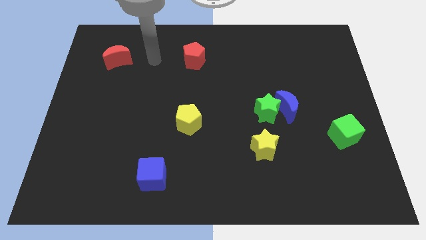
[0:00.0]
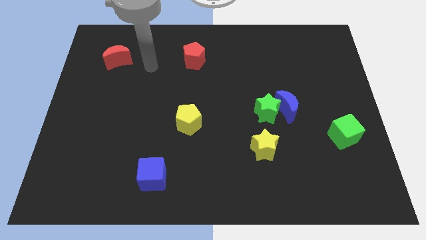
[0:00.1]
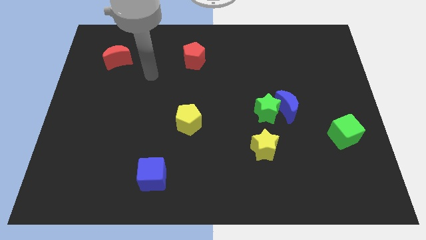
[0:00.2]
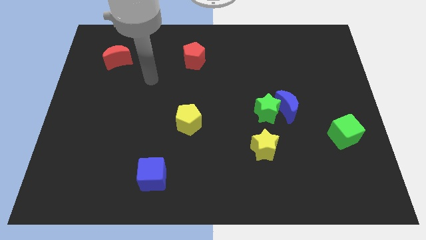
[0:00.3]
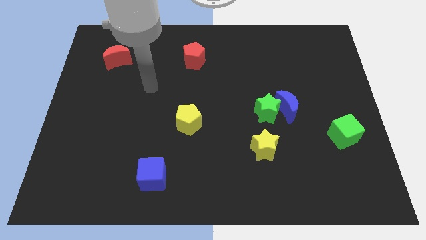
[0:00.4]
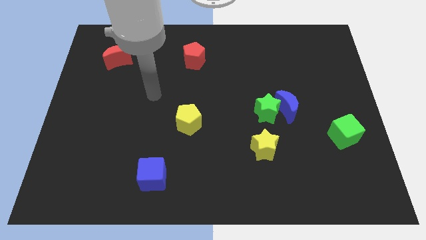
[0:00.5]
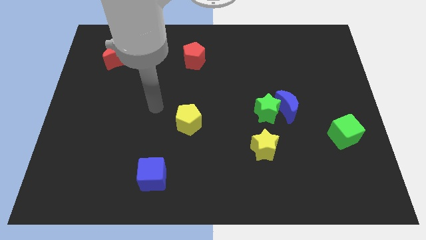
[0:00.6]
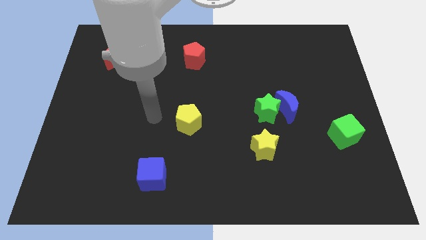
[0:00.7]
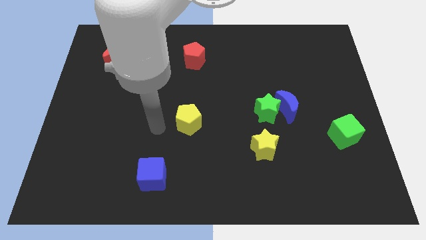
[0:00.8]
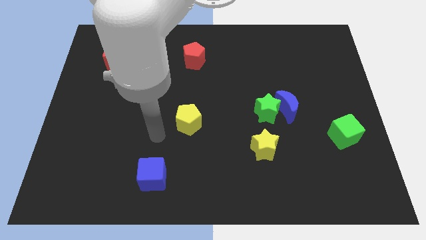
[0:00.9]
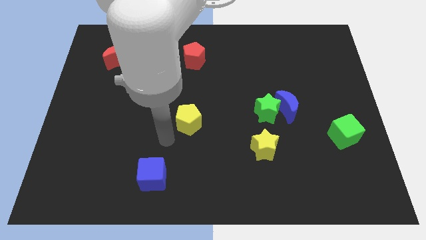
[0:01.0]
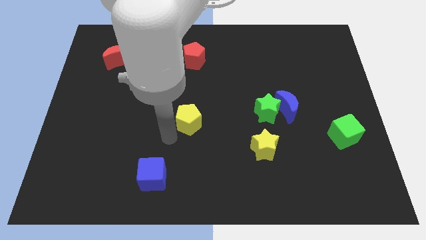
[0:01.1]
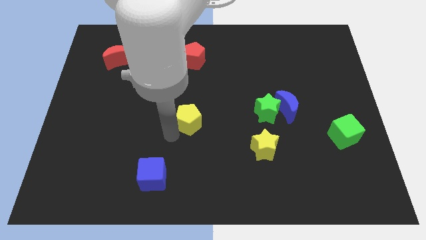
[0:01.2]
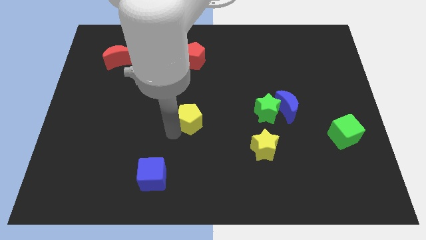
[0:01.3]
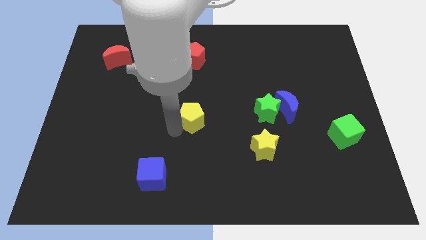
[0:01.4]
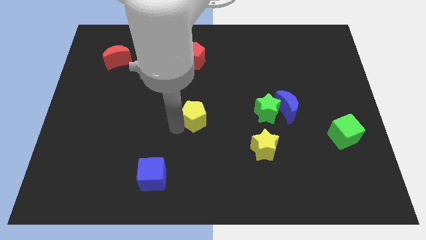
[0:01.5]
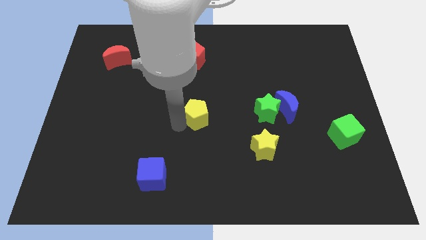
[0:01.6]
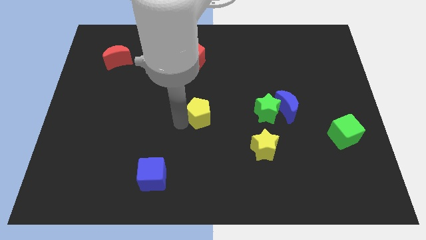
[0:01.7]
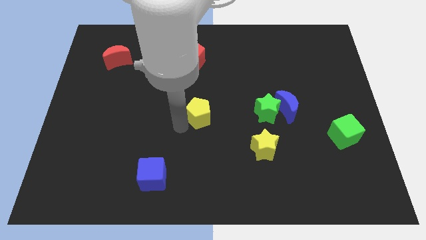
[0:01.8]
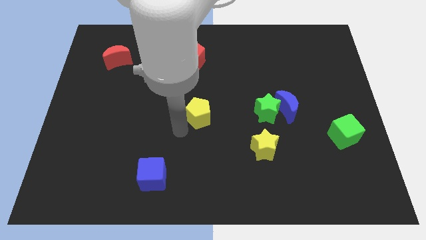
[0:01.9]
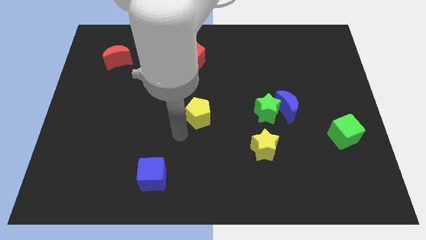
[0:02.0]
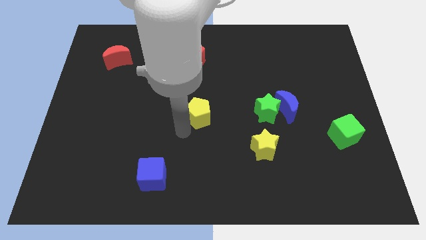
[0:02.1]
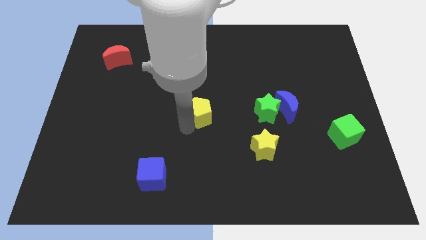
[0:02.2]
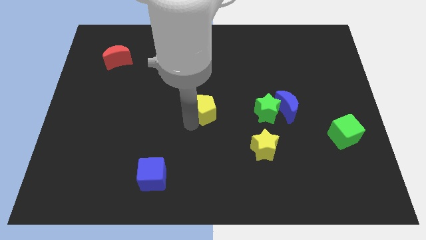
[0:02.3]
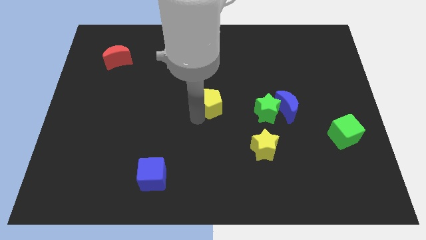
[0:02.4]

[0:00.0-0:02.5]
slightly slide the yellow pentagon up and then right

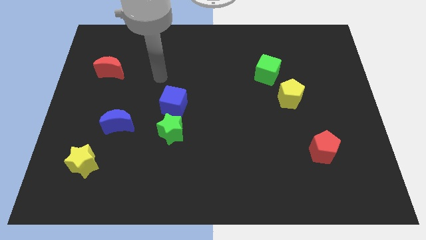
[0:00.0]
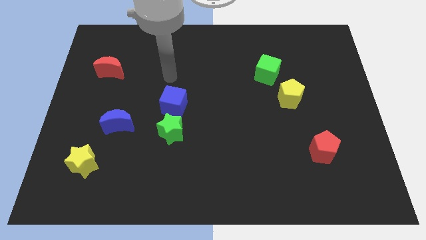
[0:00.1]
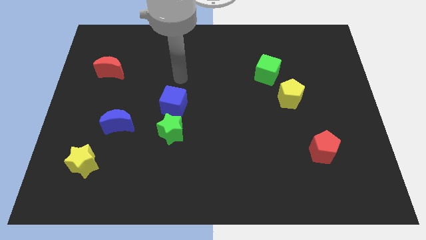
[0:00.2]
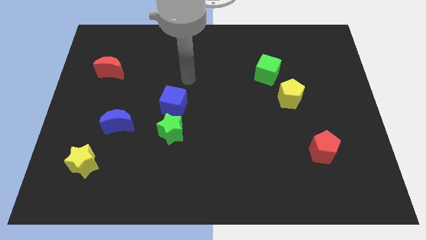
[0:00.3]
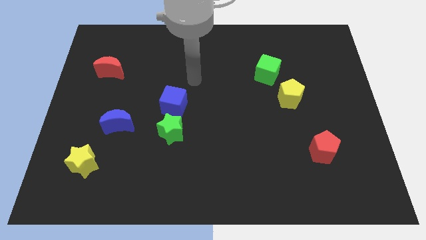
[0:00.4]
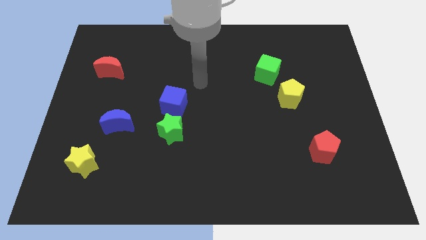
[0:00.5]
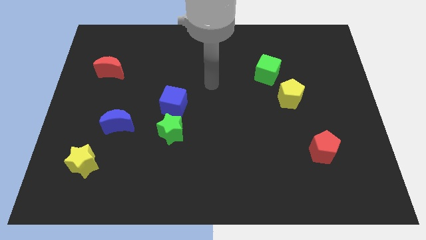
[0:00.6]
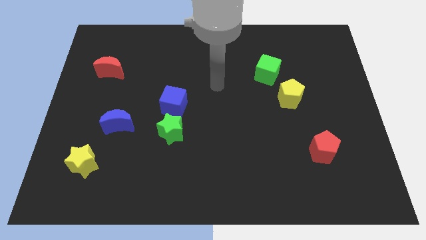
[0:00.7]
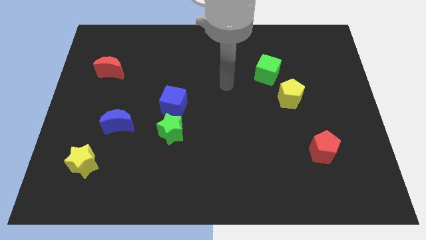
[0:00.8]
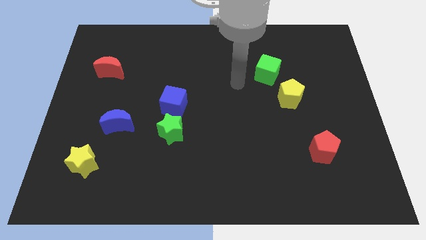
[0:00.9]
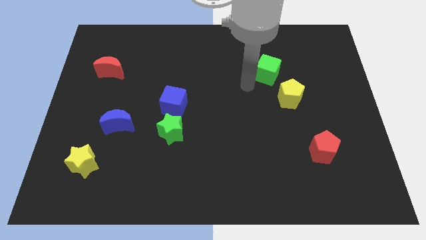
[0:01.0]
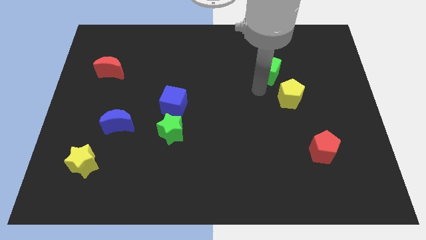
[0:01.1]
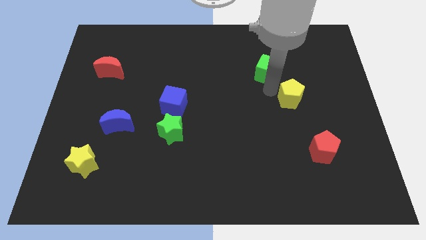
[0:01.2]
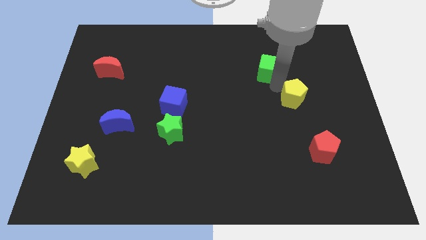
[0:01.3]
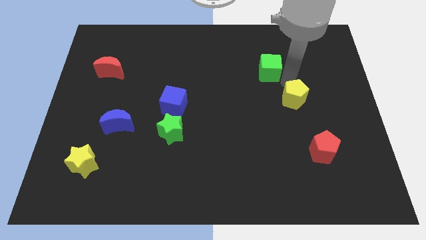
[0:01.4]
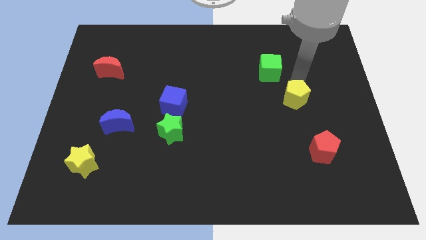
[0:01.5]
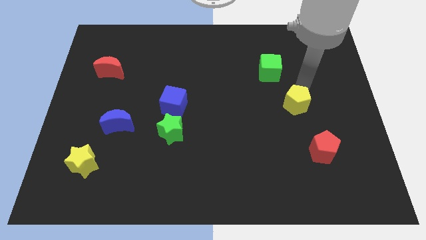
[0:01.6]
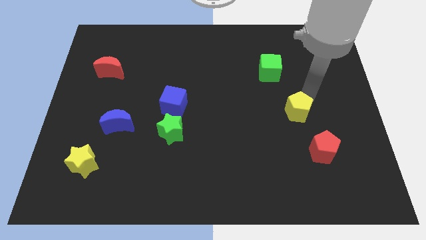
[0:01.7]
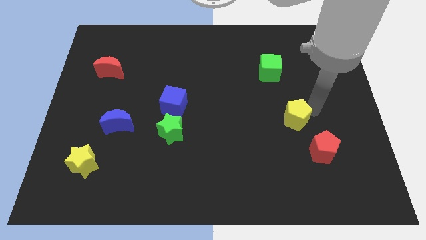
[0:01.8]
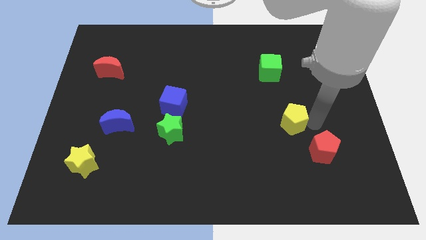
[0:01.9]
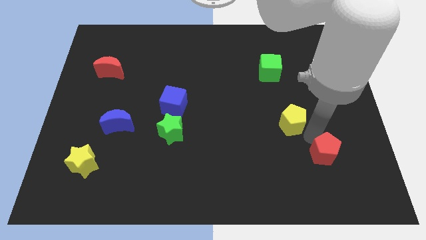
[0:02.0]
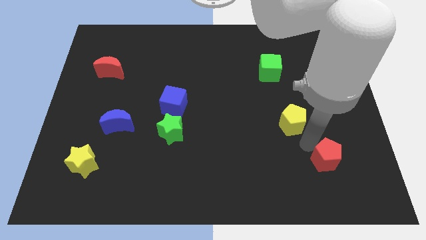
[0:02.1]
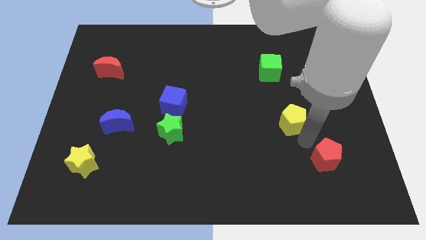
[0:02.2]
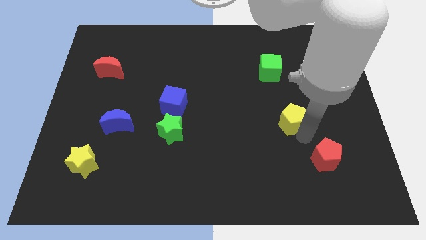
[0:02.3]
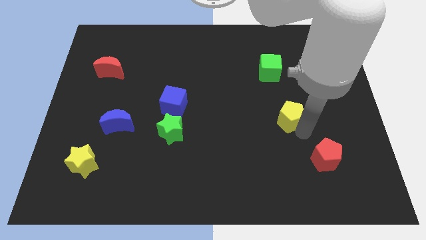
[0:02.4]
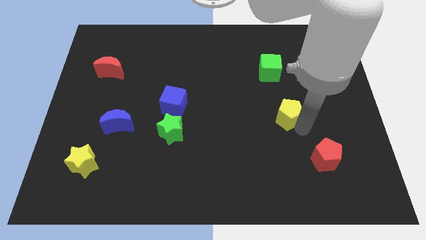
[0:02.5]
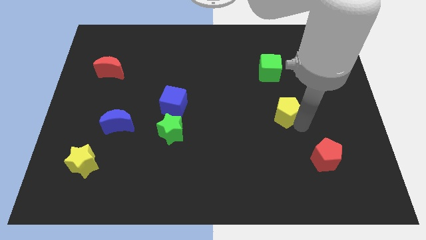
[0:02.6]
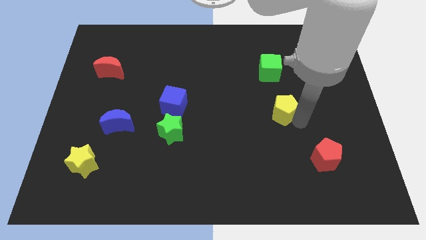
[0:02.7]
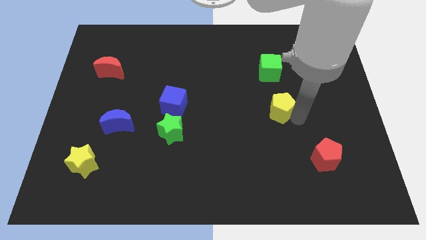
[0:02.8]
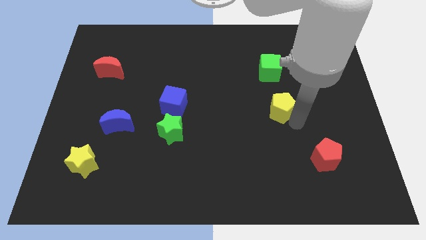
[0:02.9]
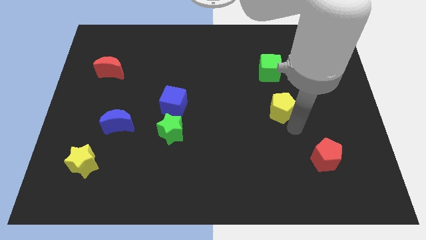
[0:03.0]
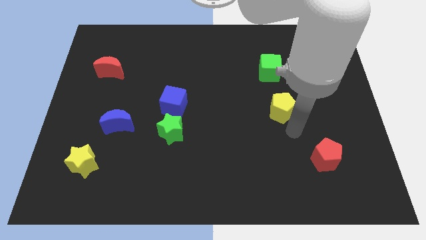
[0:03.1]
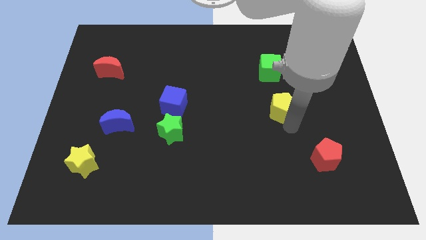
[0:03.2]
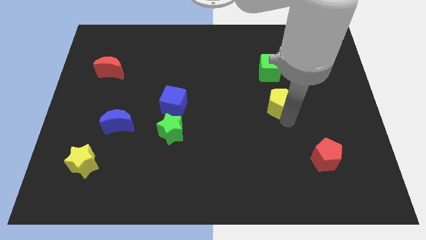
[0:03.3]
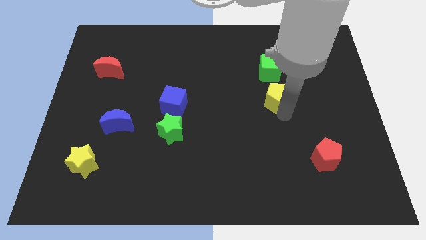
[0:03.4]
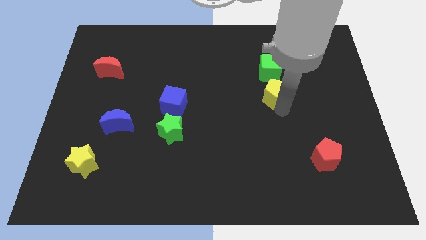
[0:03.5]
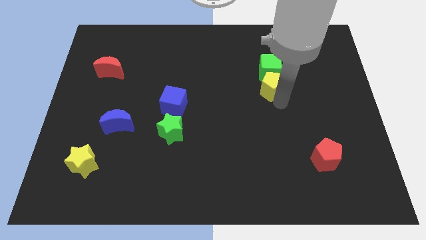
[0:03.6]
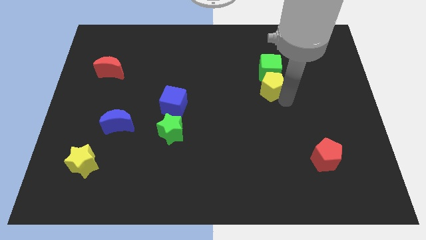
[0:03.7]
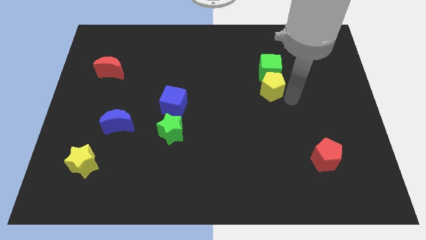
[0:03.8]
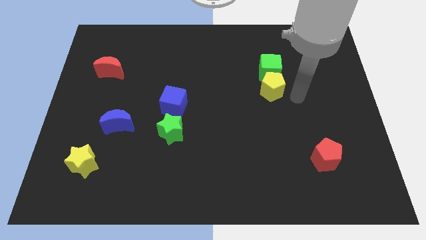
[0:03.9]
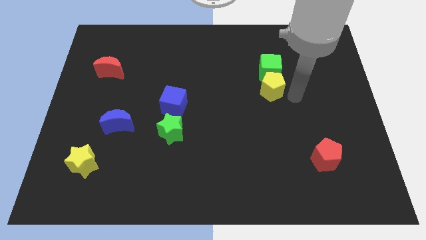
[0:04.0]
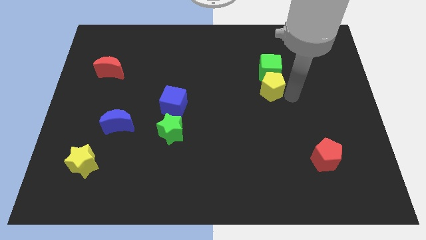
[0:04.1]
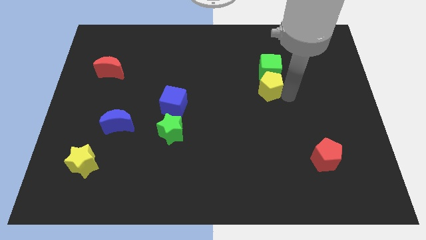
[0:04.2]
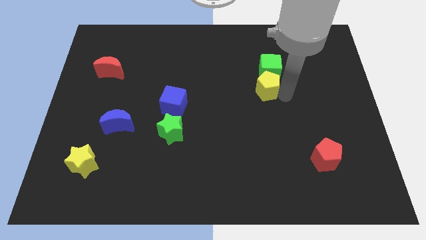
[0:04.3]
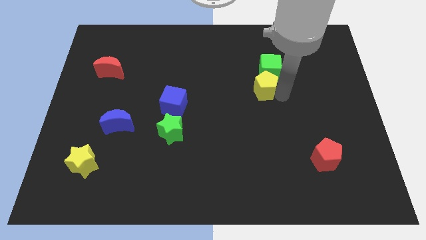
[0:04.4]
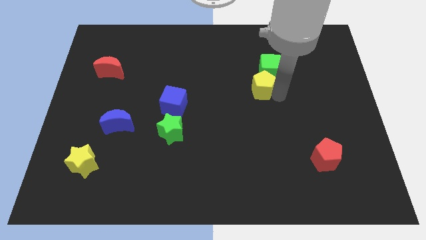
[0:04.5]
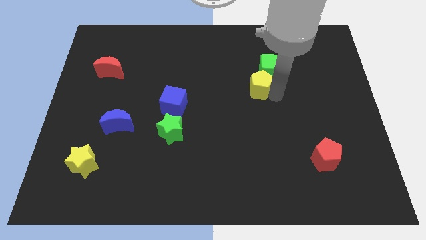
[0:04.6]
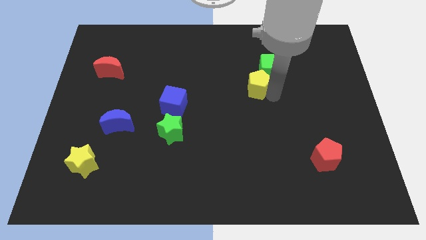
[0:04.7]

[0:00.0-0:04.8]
move the yellow pentagon up and left diagonally a little

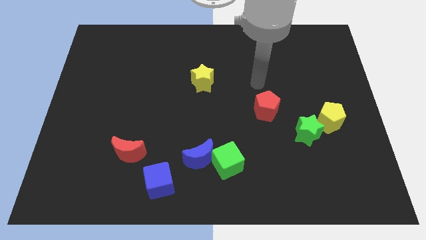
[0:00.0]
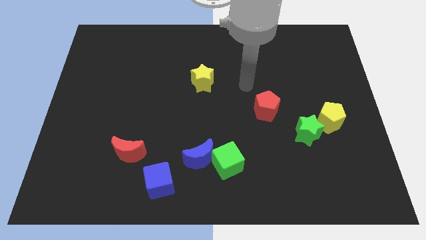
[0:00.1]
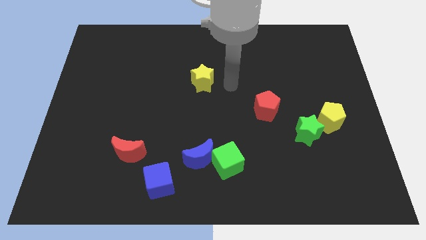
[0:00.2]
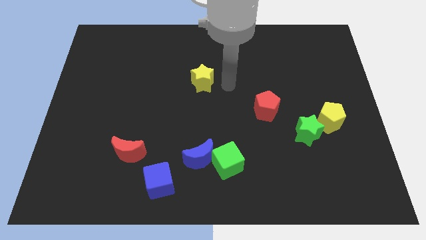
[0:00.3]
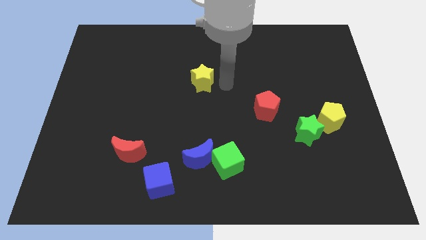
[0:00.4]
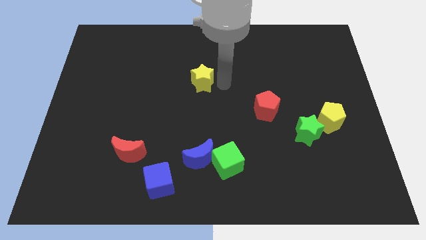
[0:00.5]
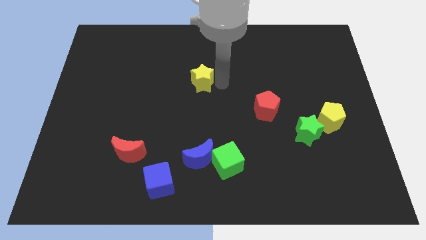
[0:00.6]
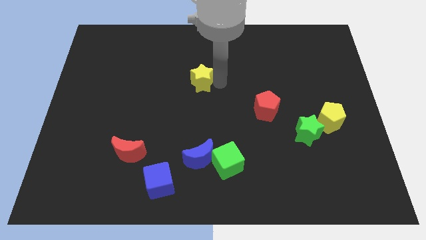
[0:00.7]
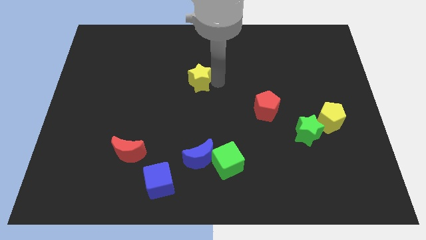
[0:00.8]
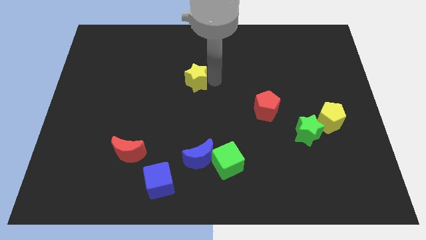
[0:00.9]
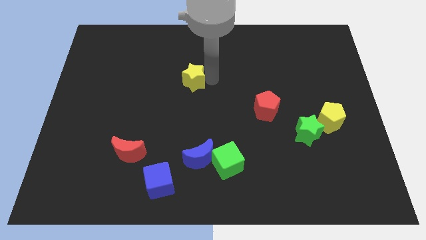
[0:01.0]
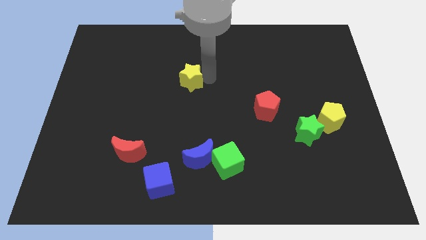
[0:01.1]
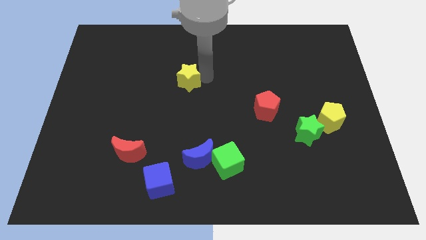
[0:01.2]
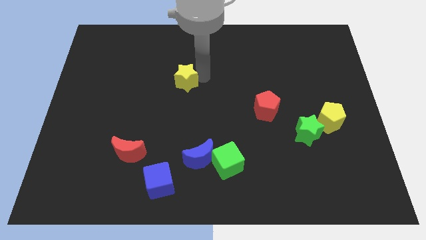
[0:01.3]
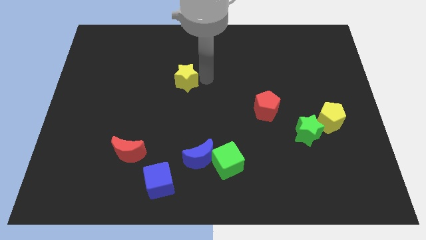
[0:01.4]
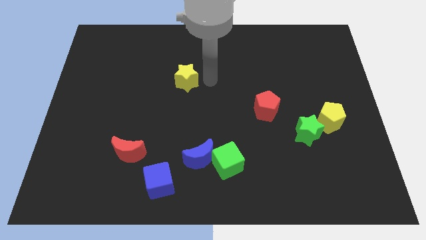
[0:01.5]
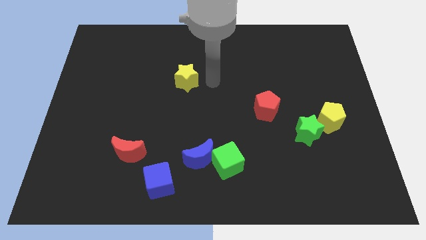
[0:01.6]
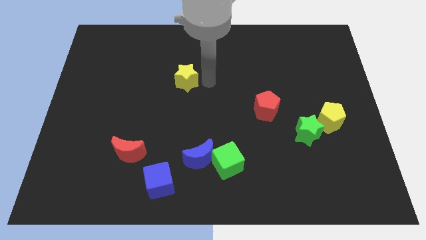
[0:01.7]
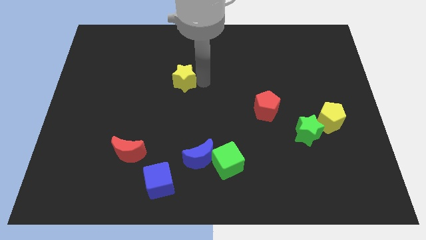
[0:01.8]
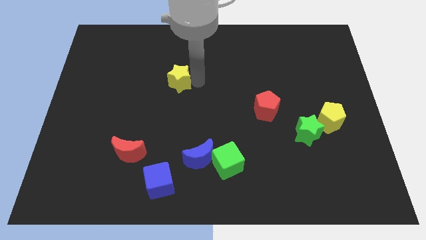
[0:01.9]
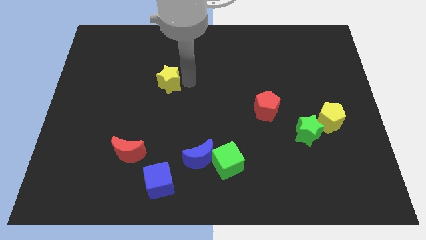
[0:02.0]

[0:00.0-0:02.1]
slide the yellow star a bit left
